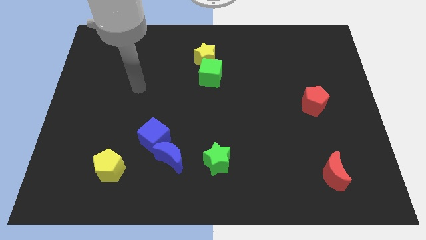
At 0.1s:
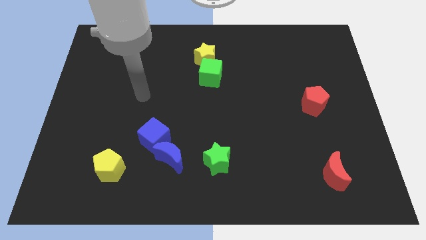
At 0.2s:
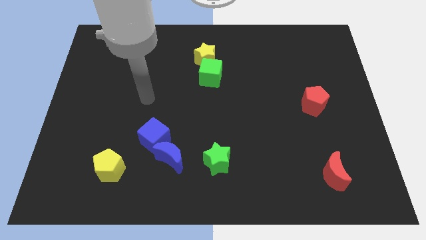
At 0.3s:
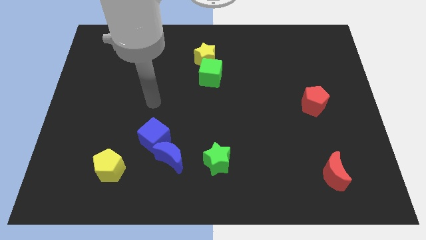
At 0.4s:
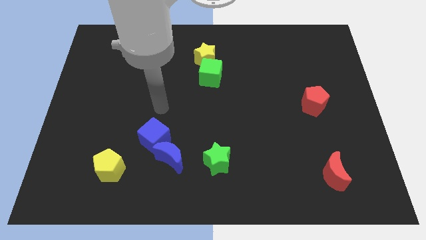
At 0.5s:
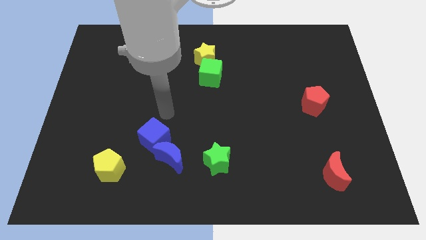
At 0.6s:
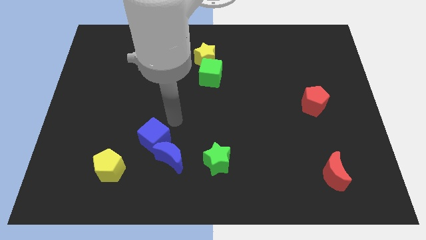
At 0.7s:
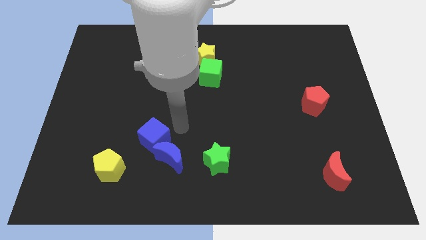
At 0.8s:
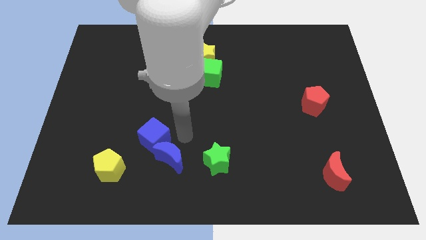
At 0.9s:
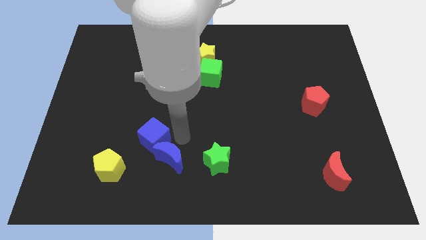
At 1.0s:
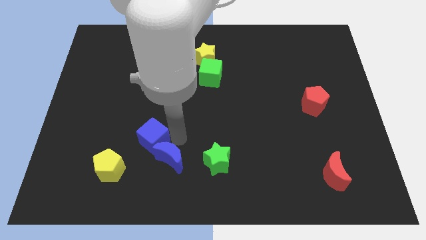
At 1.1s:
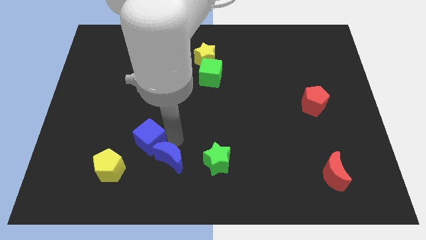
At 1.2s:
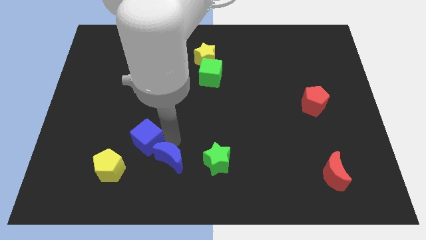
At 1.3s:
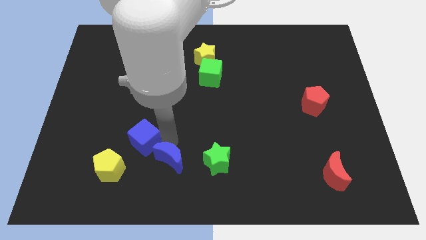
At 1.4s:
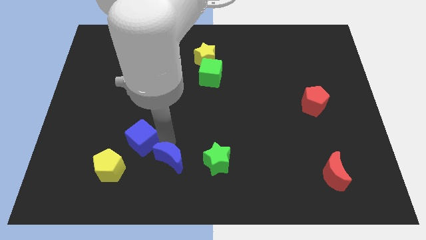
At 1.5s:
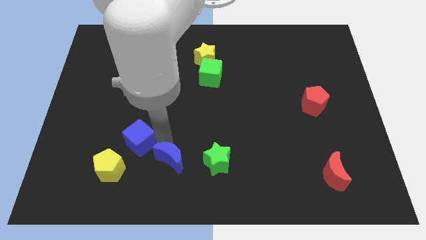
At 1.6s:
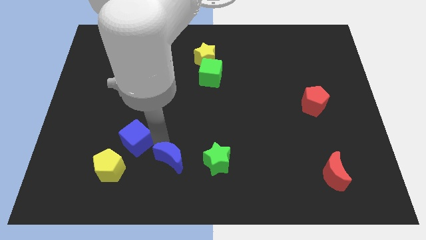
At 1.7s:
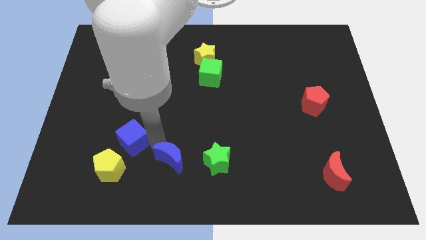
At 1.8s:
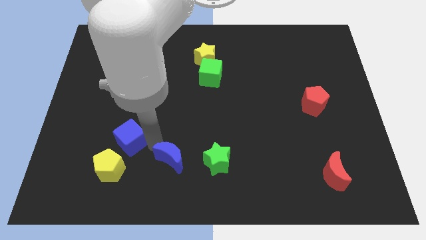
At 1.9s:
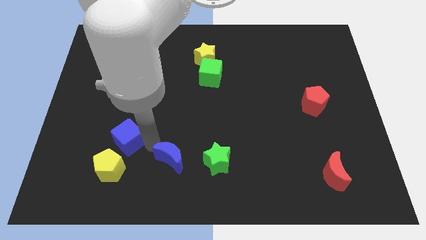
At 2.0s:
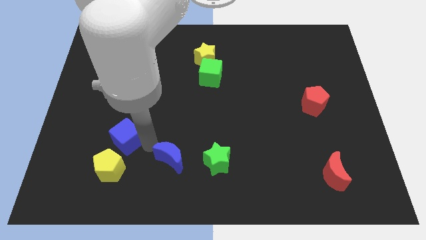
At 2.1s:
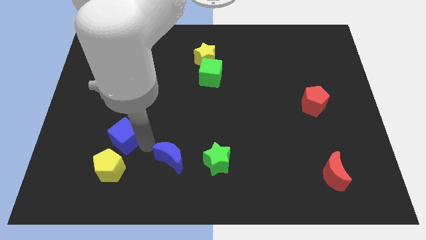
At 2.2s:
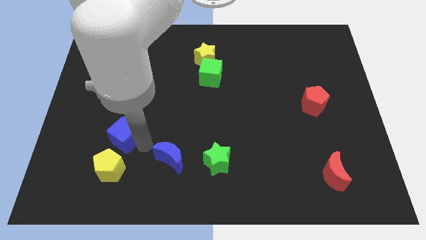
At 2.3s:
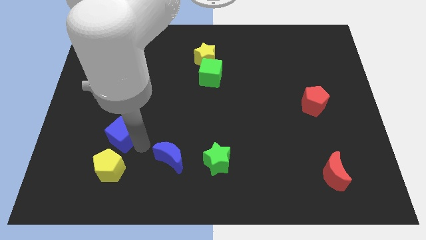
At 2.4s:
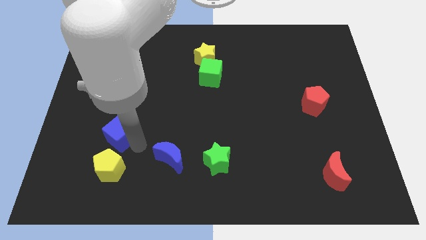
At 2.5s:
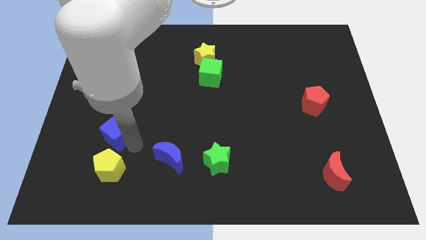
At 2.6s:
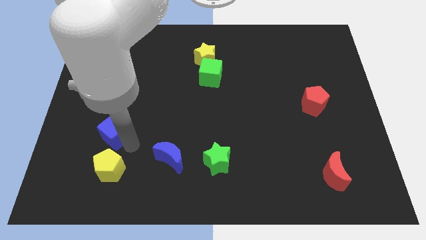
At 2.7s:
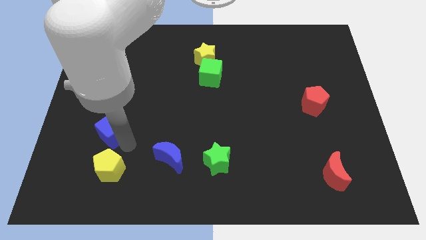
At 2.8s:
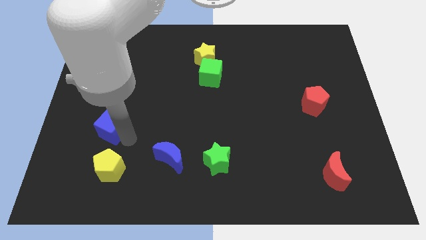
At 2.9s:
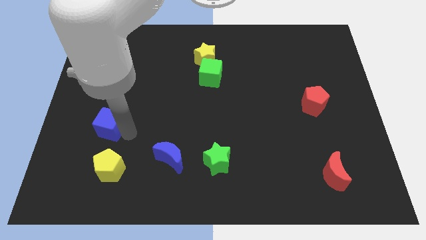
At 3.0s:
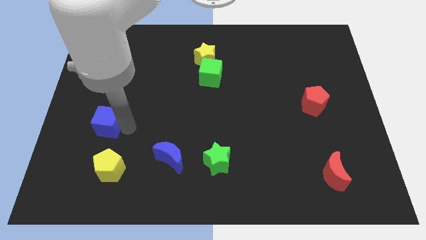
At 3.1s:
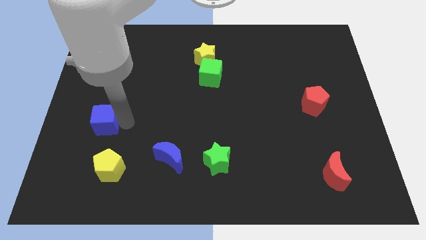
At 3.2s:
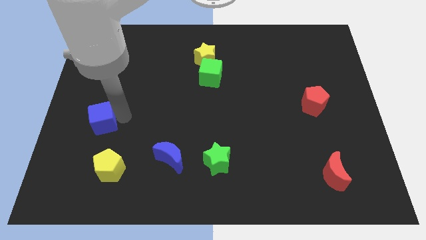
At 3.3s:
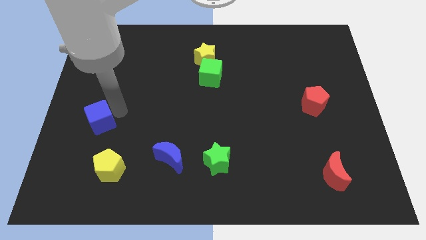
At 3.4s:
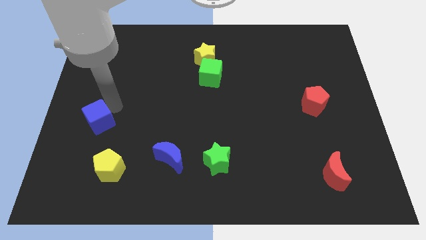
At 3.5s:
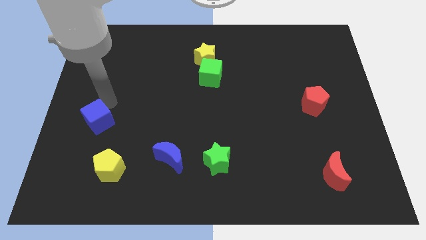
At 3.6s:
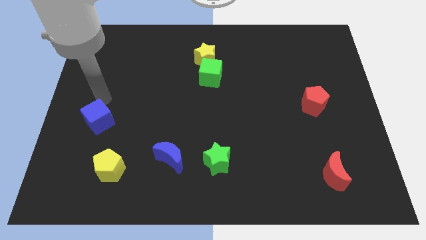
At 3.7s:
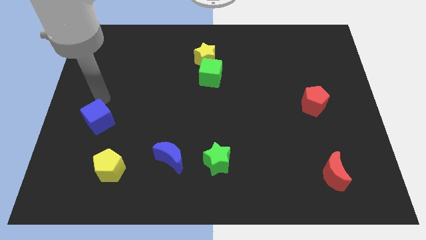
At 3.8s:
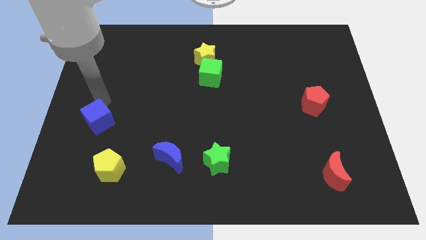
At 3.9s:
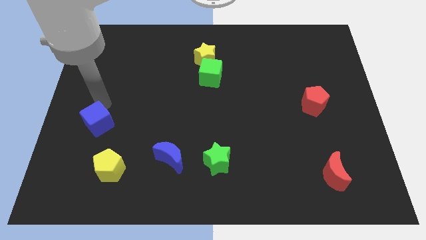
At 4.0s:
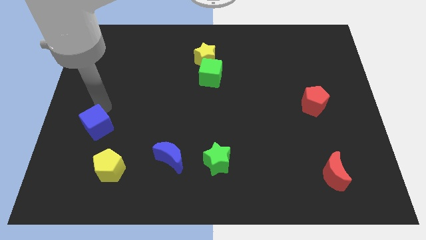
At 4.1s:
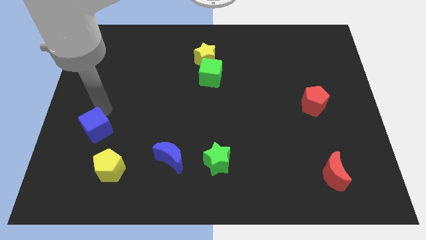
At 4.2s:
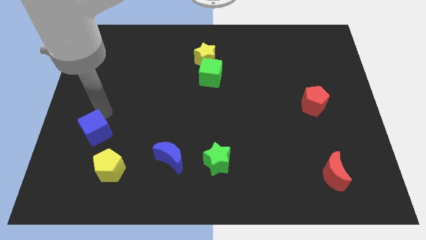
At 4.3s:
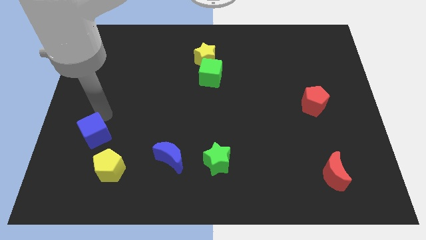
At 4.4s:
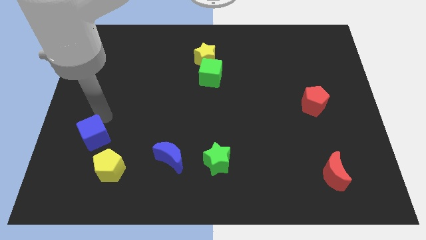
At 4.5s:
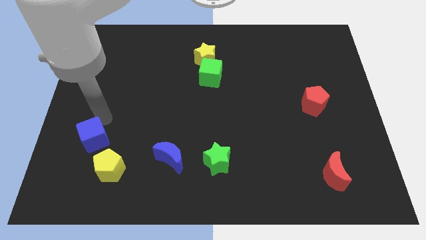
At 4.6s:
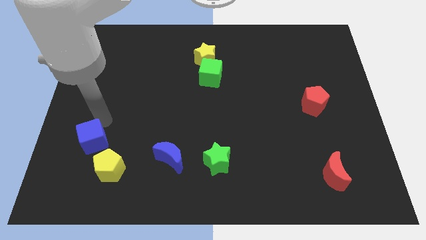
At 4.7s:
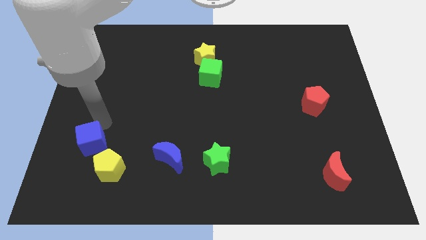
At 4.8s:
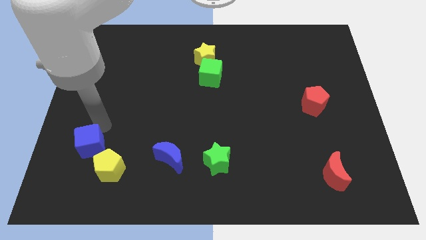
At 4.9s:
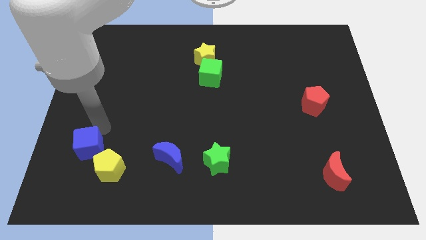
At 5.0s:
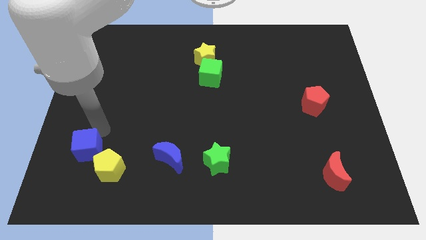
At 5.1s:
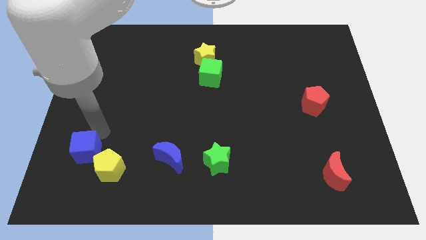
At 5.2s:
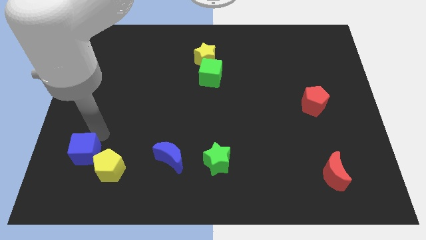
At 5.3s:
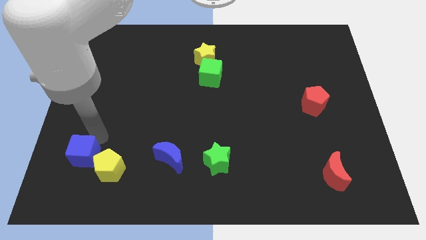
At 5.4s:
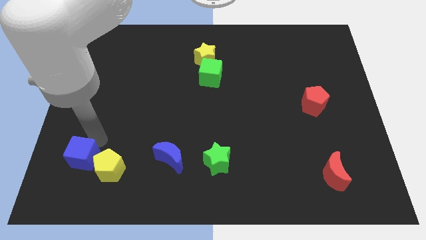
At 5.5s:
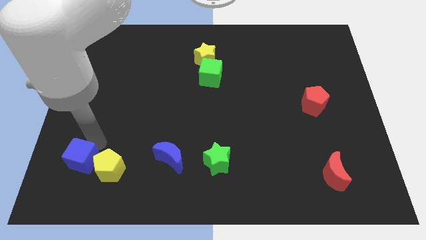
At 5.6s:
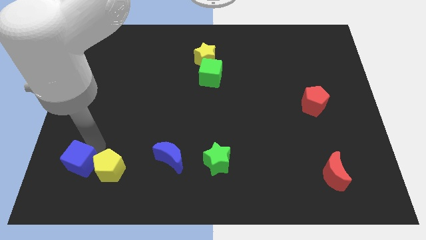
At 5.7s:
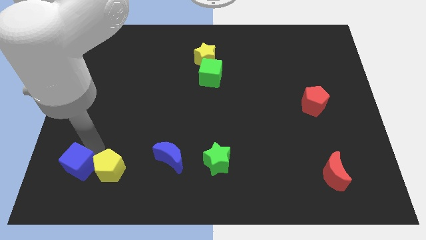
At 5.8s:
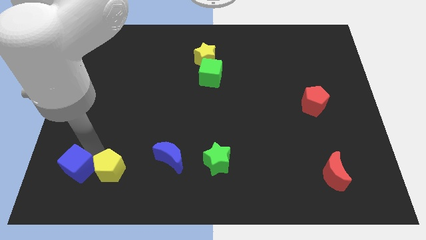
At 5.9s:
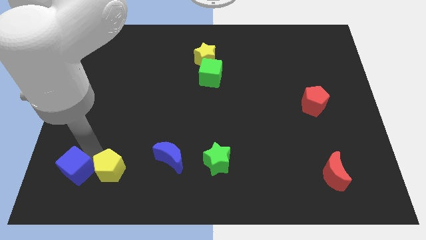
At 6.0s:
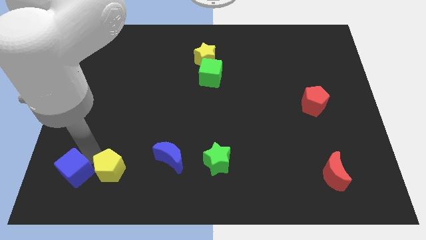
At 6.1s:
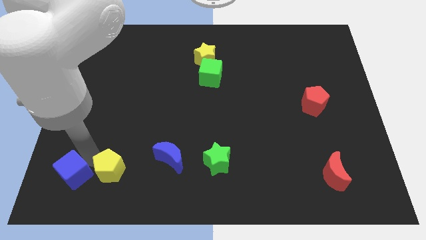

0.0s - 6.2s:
put the blue cube to the lower left corner

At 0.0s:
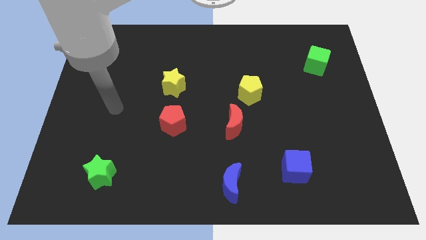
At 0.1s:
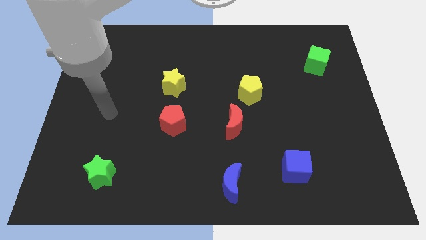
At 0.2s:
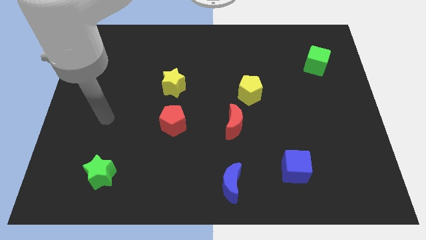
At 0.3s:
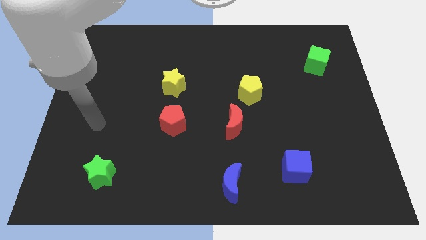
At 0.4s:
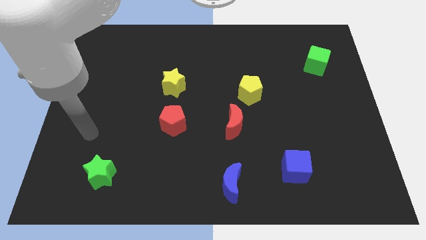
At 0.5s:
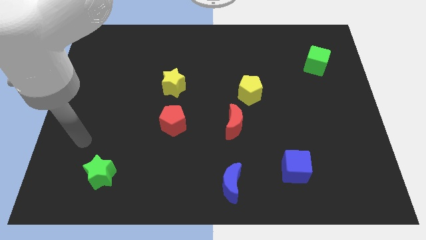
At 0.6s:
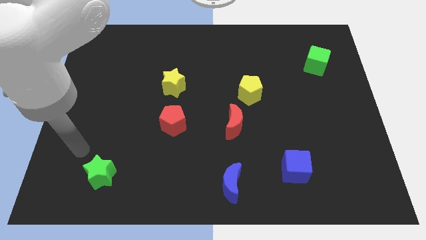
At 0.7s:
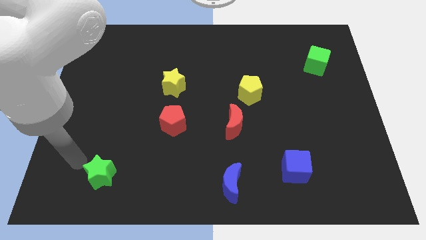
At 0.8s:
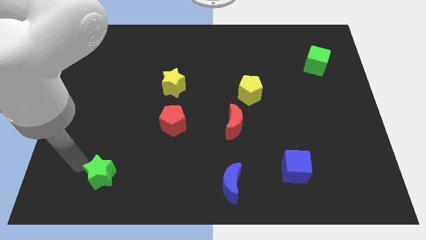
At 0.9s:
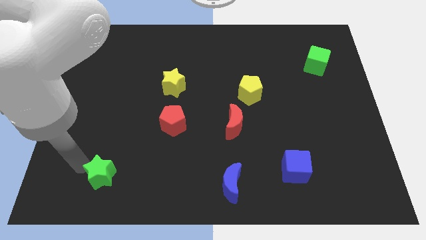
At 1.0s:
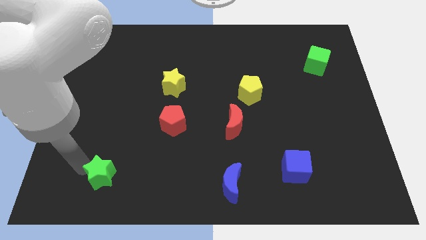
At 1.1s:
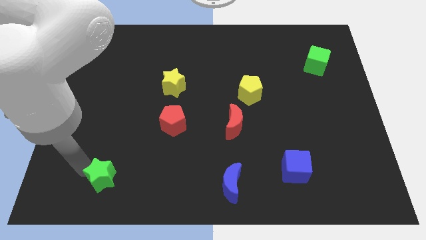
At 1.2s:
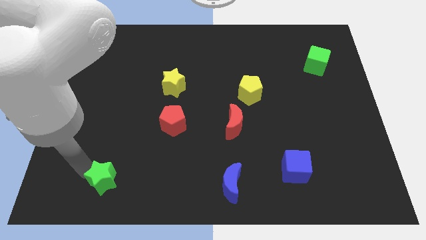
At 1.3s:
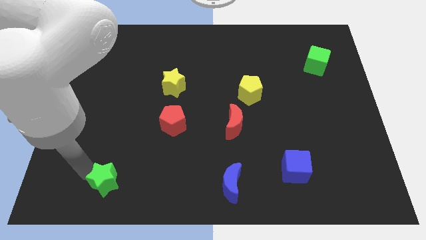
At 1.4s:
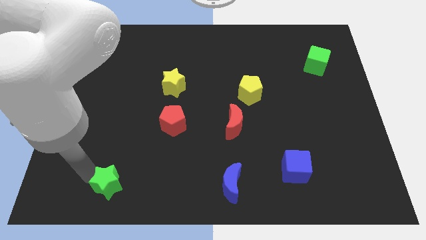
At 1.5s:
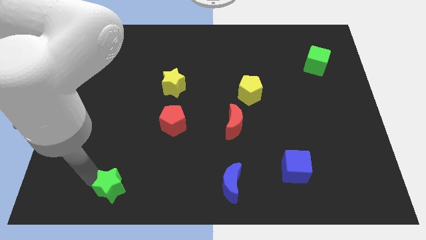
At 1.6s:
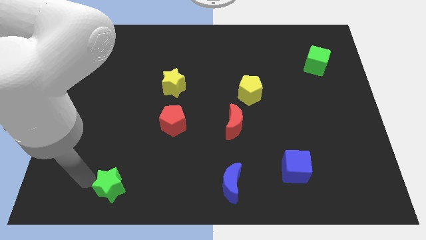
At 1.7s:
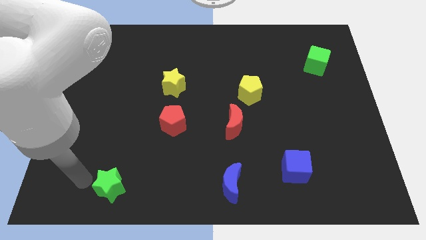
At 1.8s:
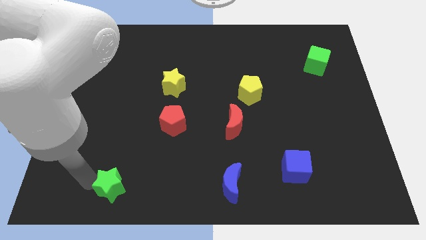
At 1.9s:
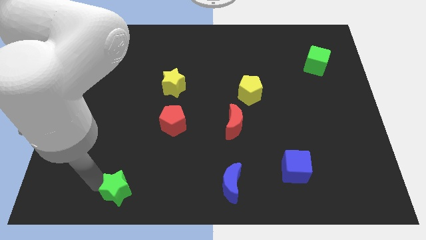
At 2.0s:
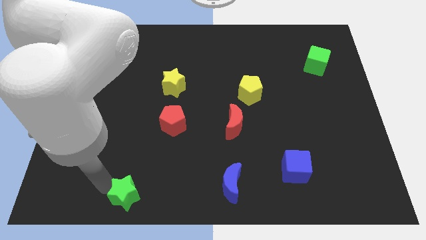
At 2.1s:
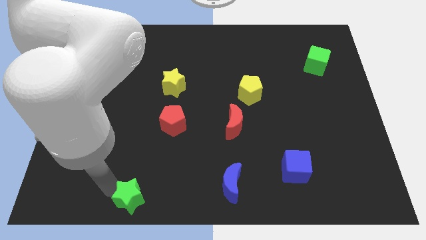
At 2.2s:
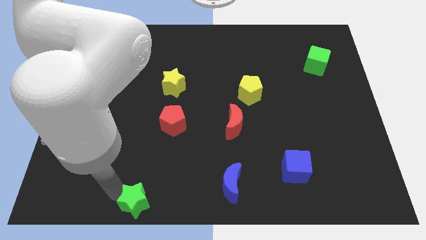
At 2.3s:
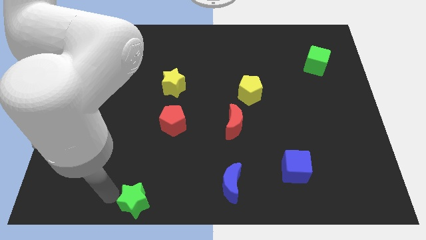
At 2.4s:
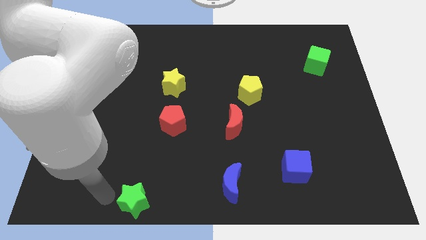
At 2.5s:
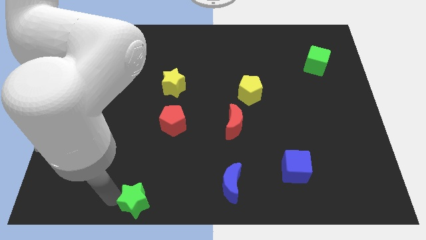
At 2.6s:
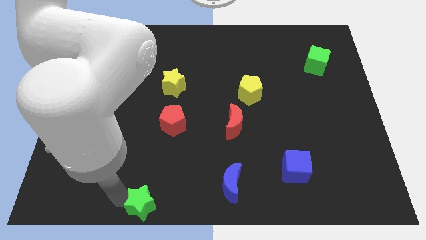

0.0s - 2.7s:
move the green star to the bottom
